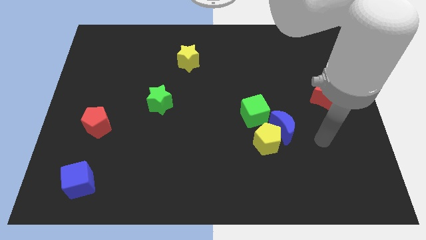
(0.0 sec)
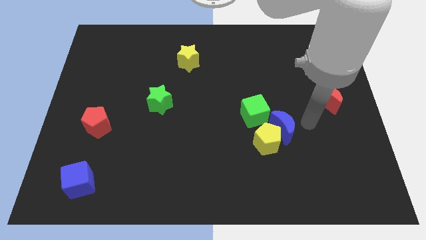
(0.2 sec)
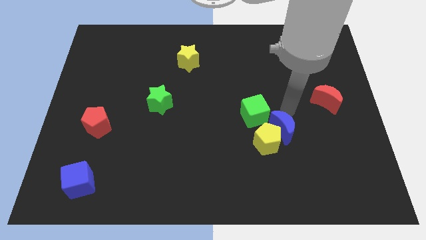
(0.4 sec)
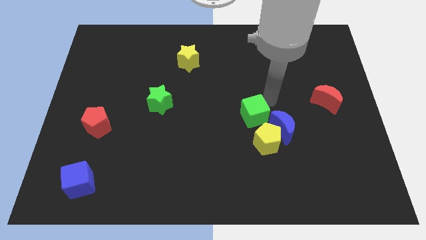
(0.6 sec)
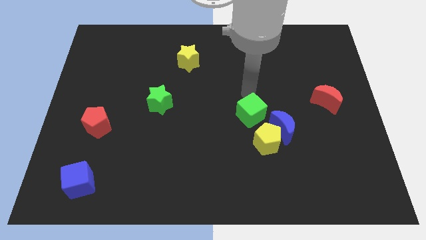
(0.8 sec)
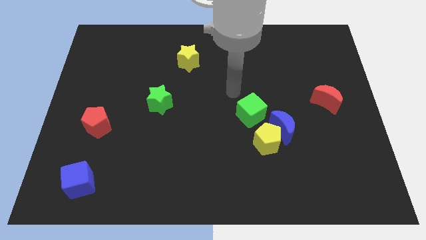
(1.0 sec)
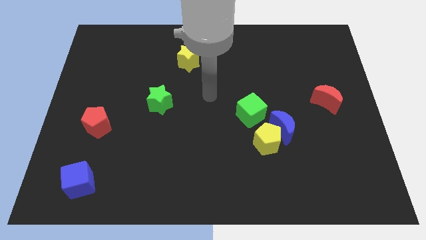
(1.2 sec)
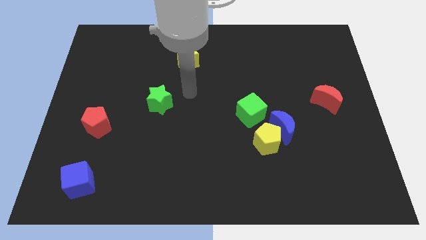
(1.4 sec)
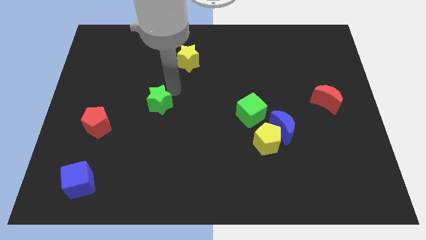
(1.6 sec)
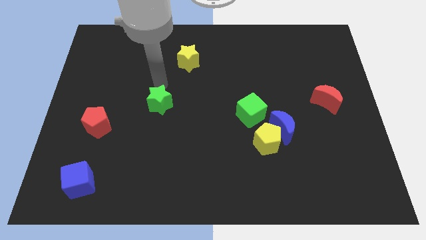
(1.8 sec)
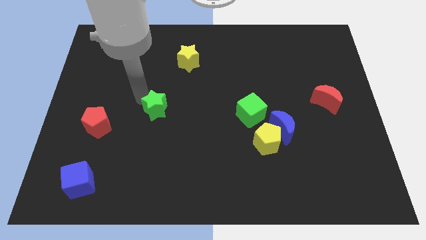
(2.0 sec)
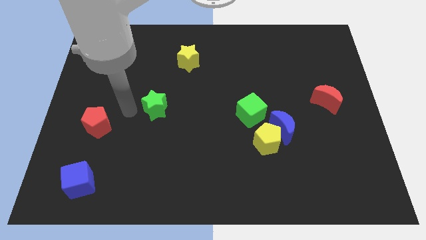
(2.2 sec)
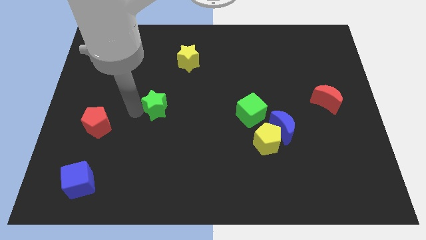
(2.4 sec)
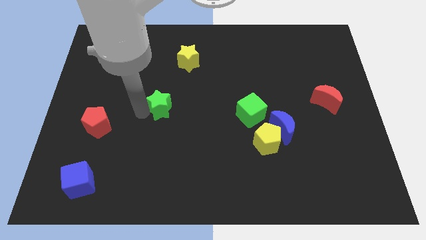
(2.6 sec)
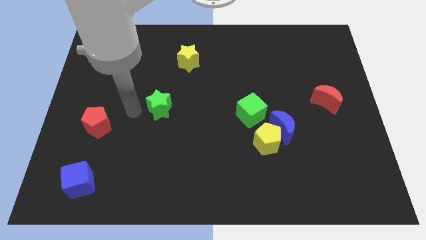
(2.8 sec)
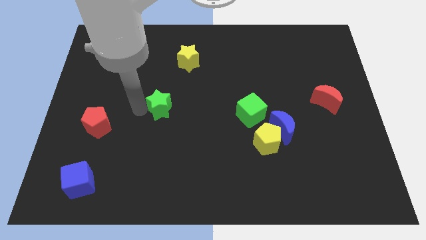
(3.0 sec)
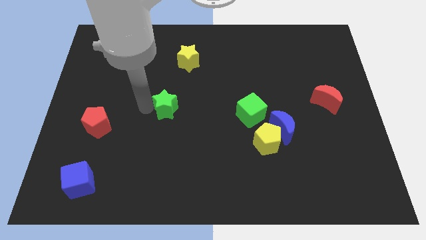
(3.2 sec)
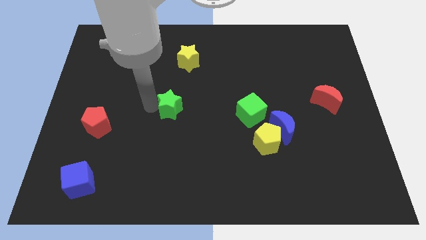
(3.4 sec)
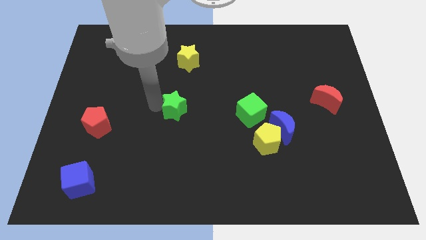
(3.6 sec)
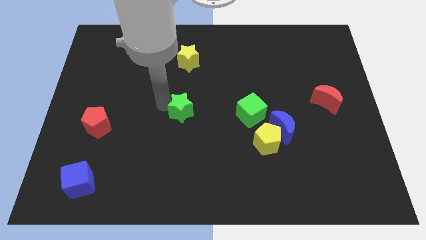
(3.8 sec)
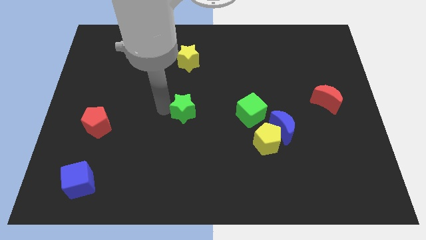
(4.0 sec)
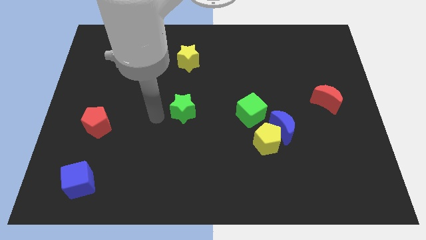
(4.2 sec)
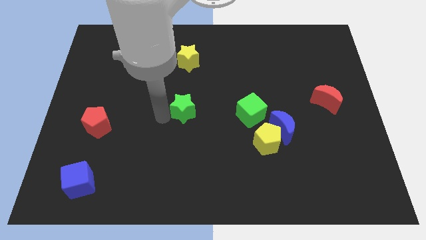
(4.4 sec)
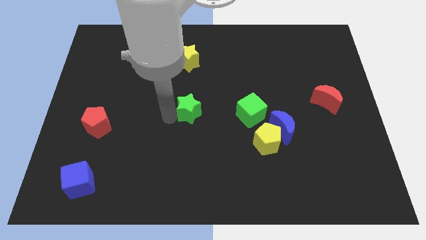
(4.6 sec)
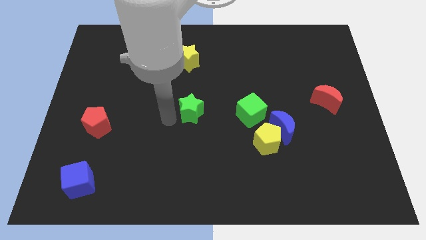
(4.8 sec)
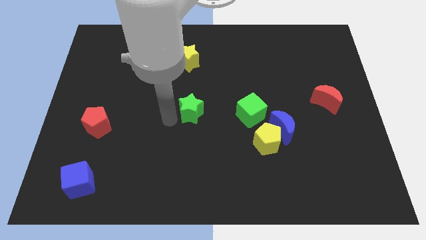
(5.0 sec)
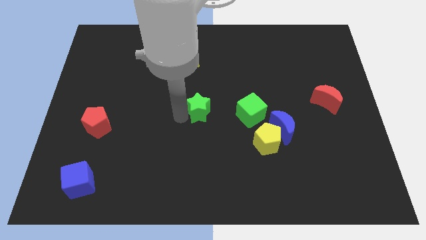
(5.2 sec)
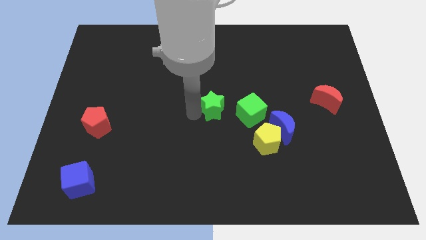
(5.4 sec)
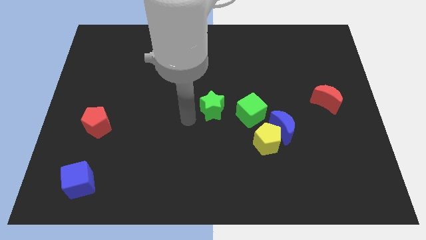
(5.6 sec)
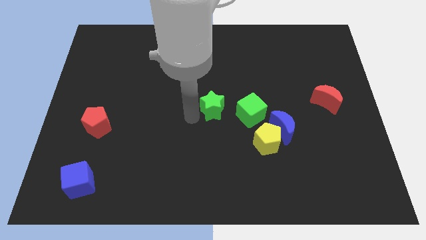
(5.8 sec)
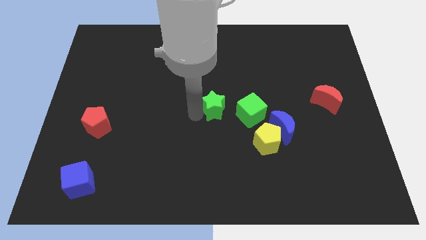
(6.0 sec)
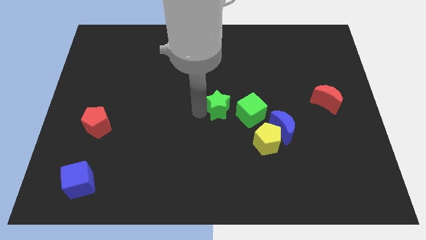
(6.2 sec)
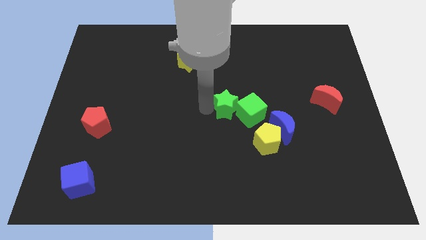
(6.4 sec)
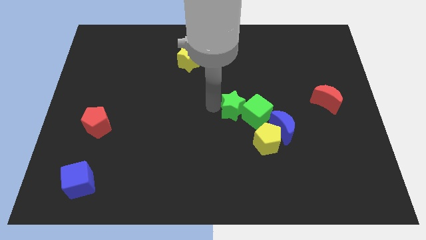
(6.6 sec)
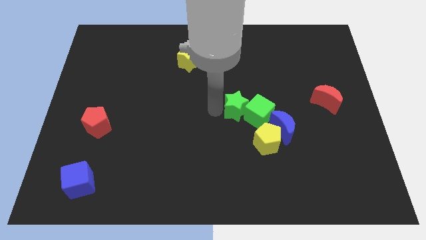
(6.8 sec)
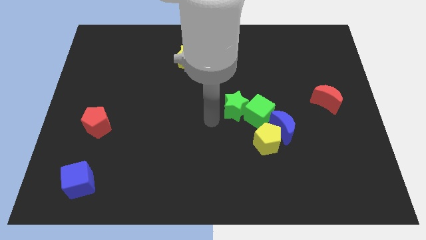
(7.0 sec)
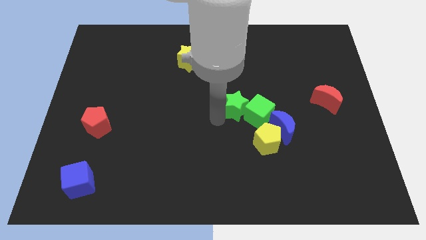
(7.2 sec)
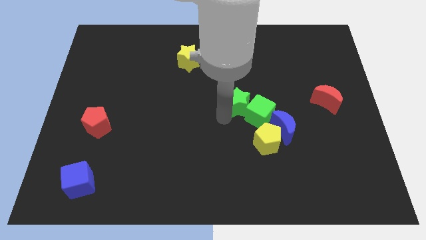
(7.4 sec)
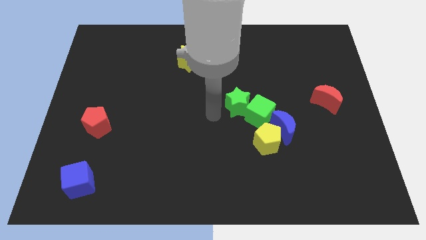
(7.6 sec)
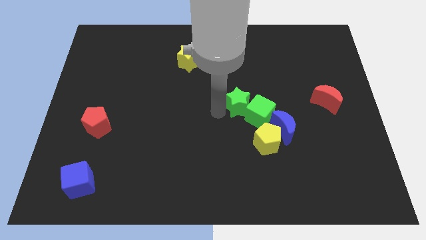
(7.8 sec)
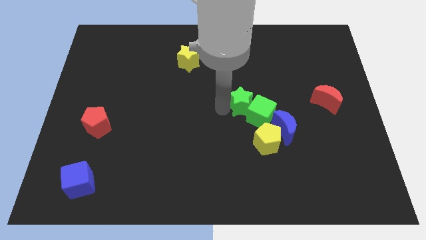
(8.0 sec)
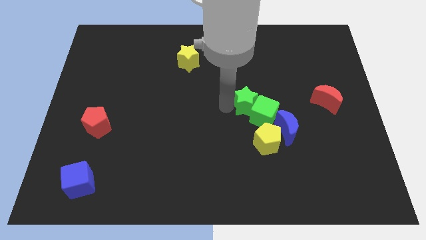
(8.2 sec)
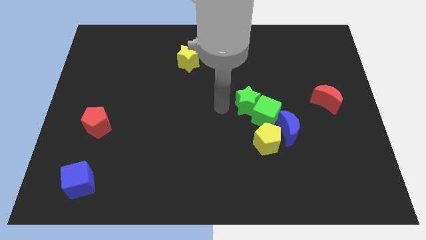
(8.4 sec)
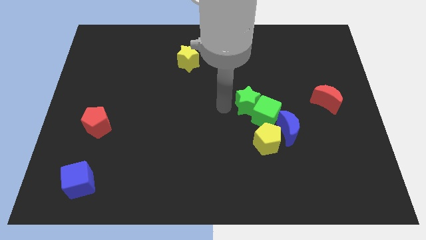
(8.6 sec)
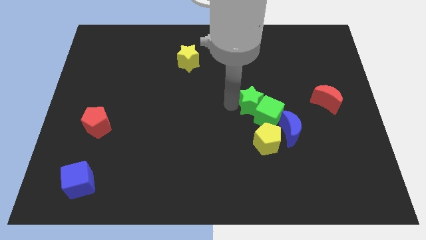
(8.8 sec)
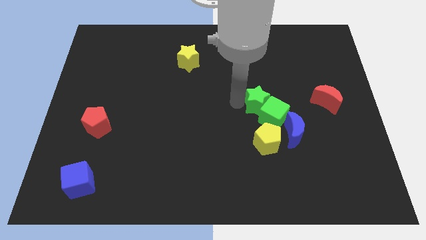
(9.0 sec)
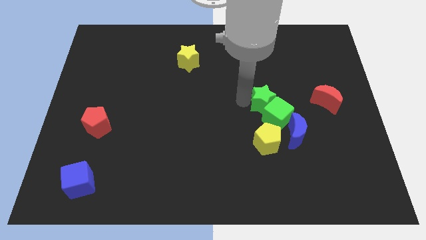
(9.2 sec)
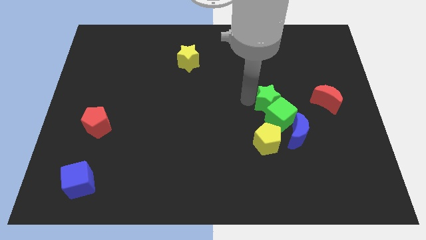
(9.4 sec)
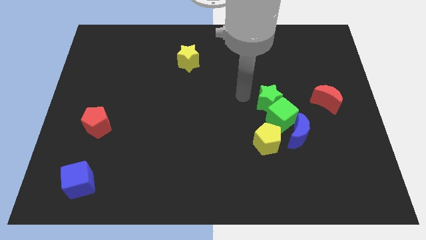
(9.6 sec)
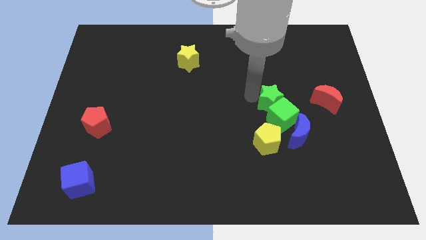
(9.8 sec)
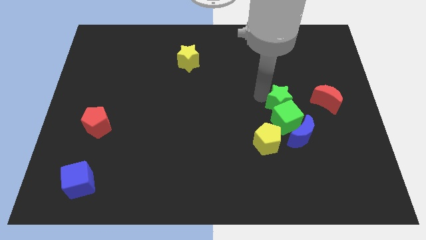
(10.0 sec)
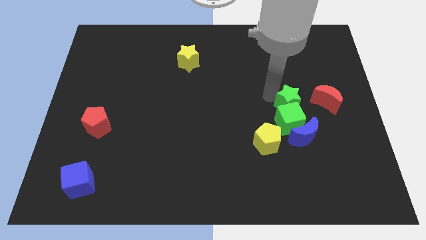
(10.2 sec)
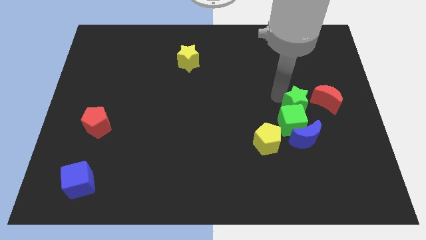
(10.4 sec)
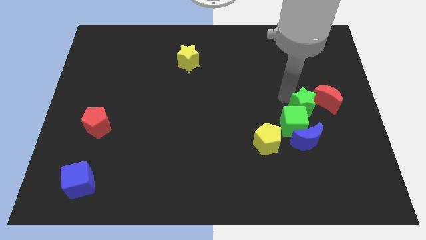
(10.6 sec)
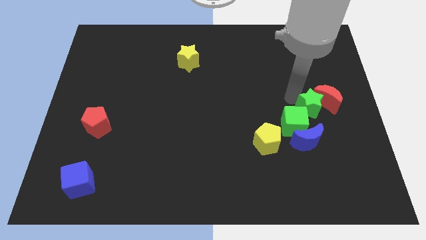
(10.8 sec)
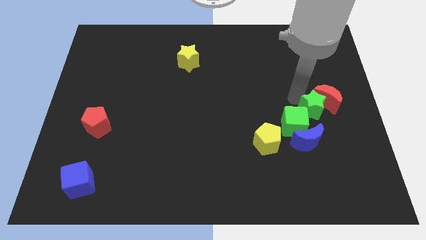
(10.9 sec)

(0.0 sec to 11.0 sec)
put the green star to the top right of the blue moon

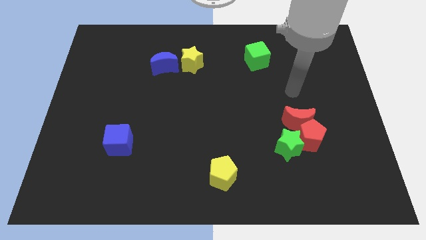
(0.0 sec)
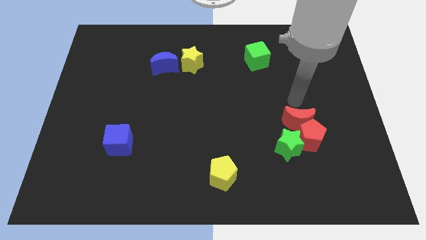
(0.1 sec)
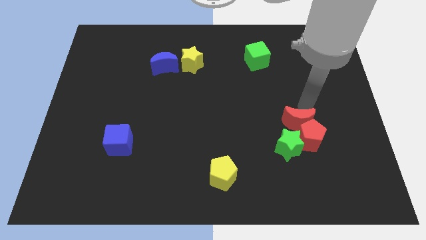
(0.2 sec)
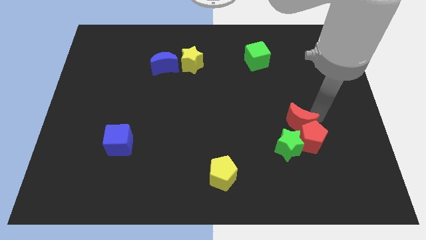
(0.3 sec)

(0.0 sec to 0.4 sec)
push the green star diagonally up and to the left of the red pentagon
